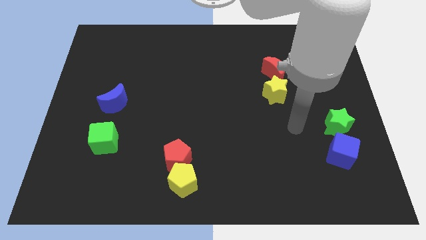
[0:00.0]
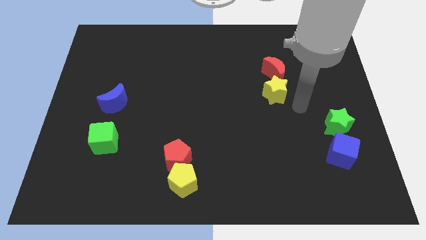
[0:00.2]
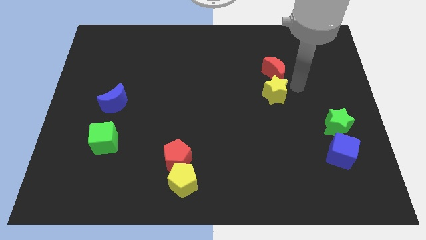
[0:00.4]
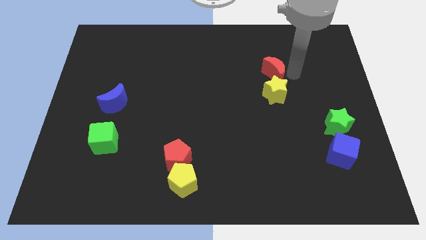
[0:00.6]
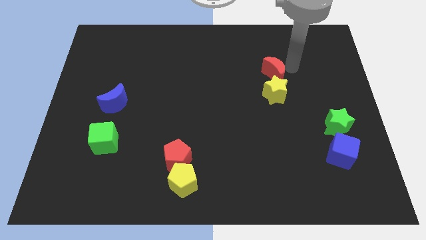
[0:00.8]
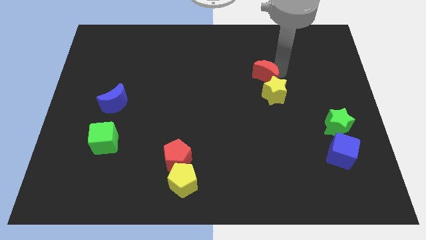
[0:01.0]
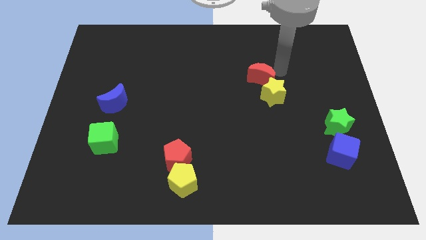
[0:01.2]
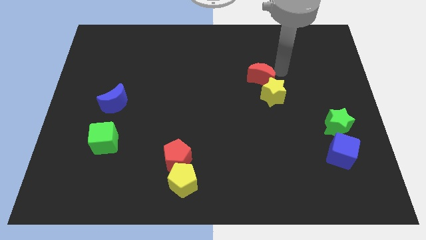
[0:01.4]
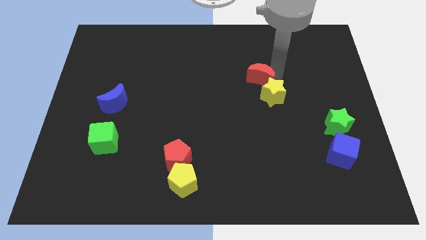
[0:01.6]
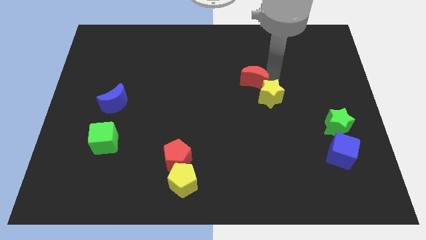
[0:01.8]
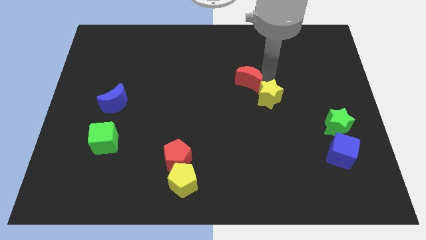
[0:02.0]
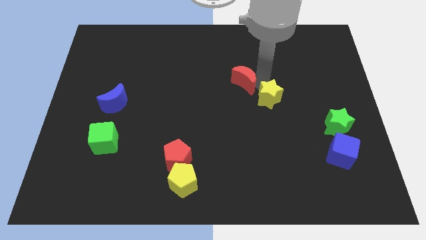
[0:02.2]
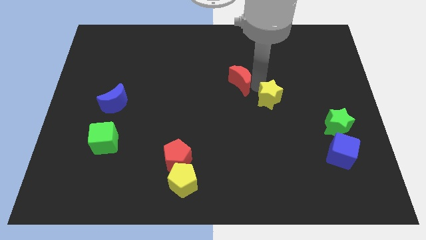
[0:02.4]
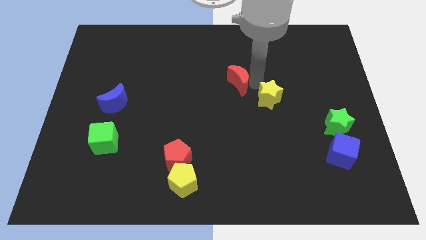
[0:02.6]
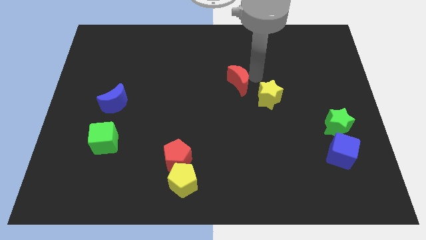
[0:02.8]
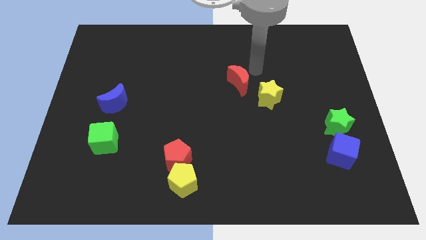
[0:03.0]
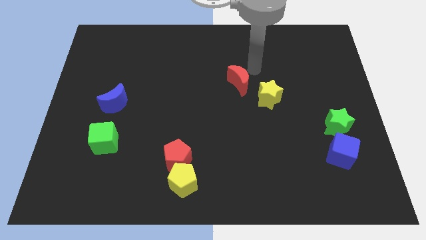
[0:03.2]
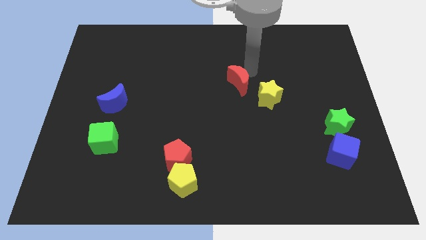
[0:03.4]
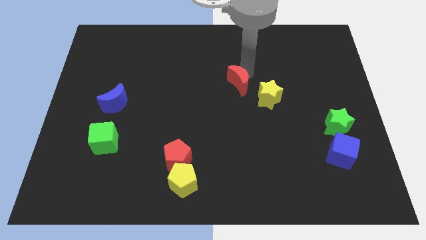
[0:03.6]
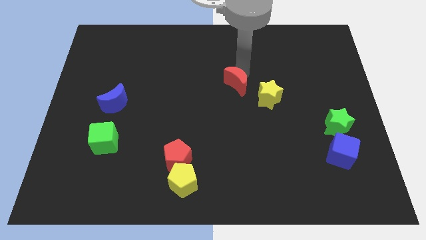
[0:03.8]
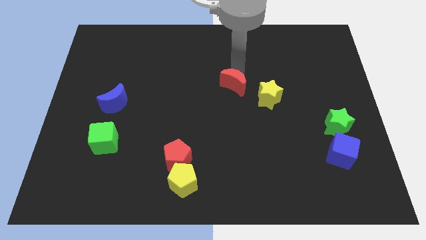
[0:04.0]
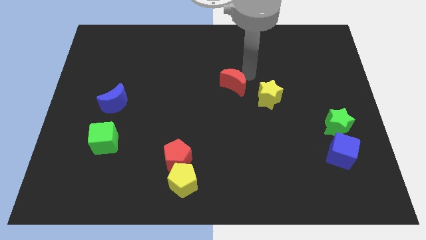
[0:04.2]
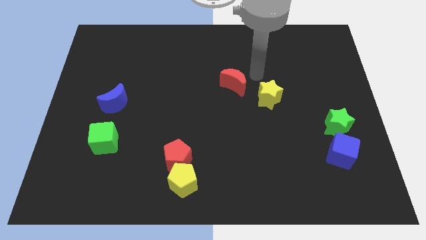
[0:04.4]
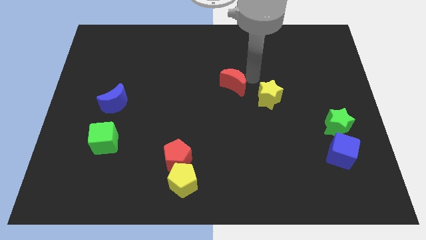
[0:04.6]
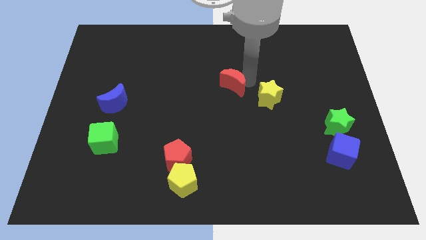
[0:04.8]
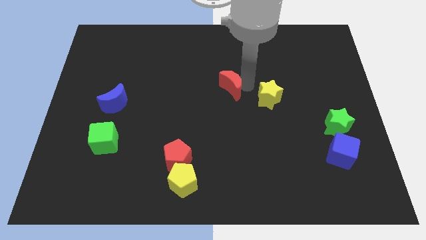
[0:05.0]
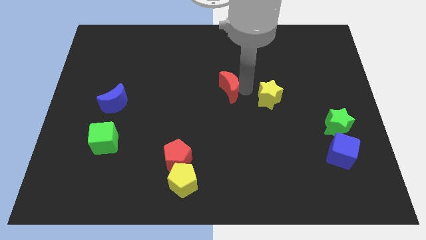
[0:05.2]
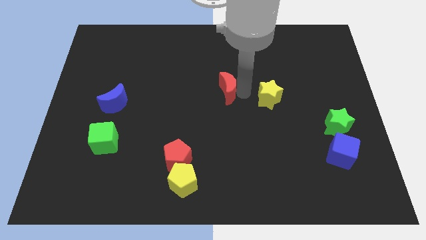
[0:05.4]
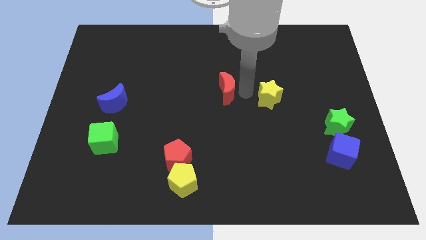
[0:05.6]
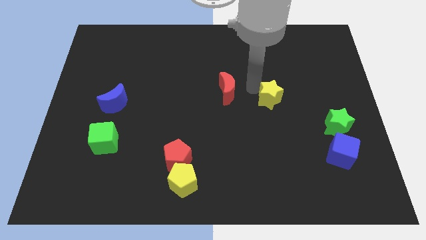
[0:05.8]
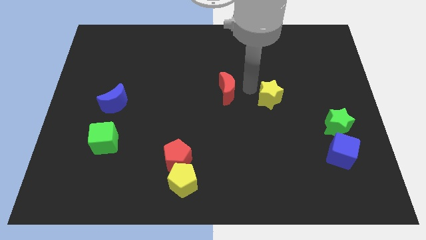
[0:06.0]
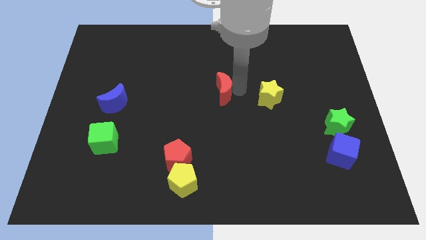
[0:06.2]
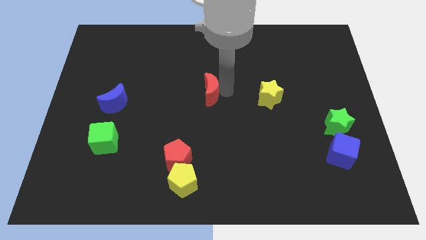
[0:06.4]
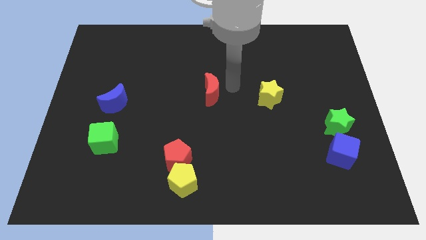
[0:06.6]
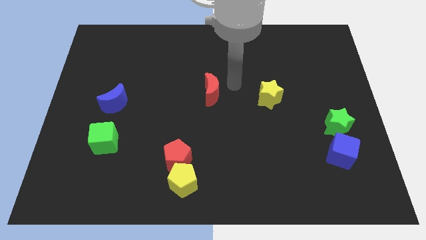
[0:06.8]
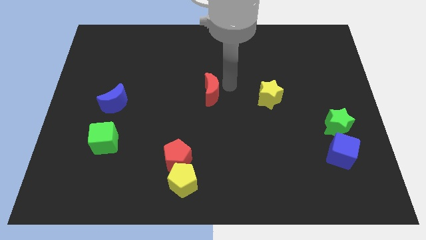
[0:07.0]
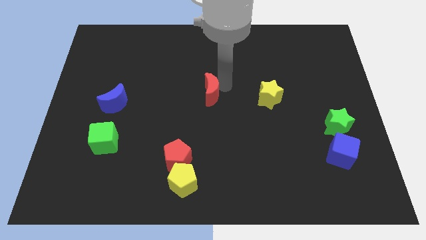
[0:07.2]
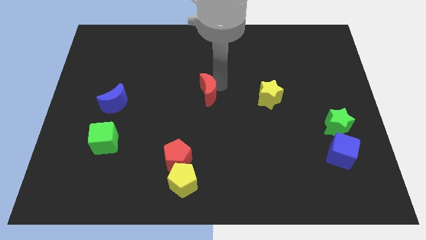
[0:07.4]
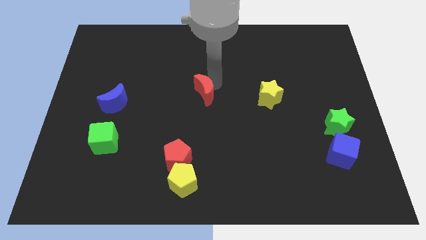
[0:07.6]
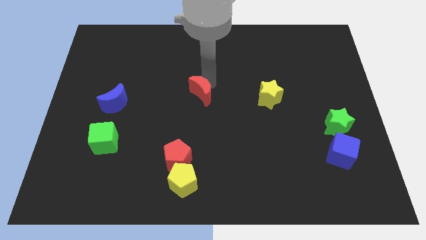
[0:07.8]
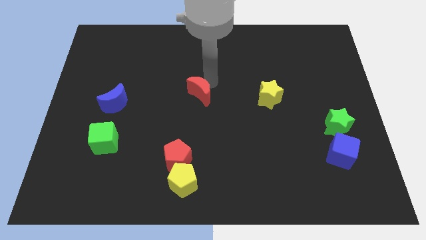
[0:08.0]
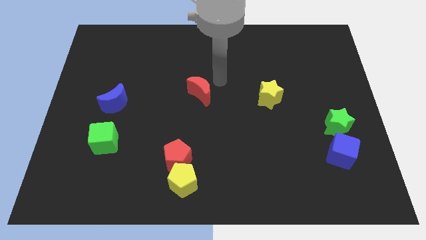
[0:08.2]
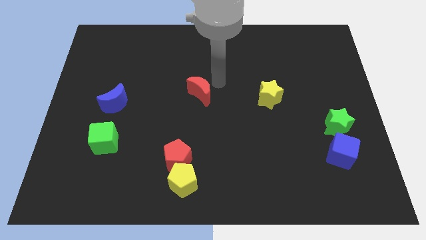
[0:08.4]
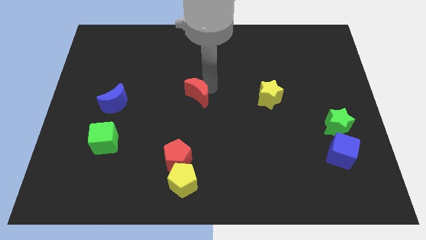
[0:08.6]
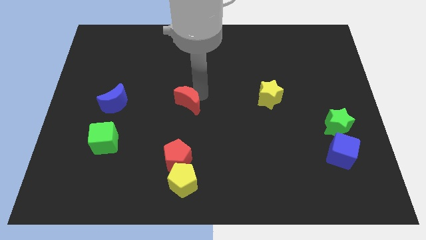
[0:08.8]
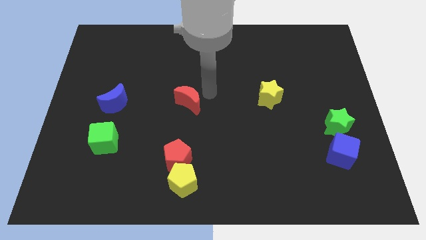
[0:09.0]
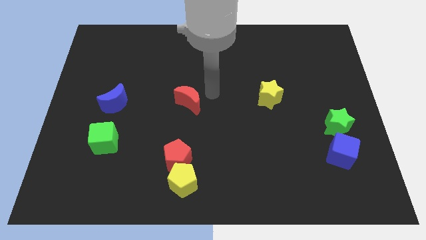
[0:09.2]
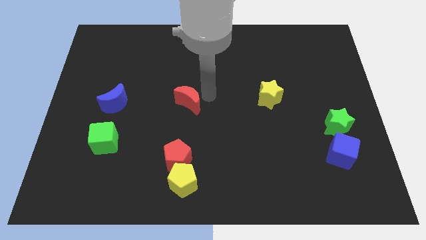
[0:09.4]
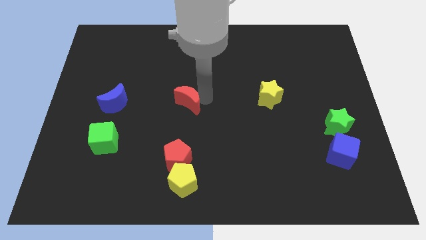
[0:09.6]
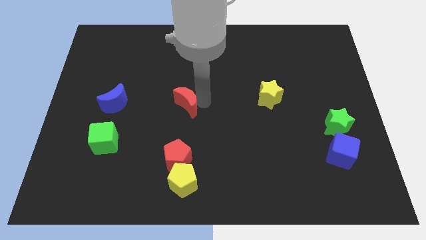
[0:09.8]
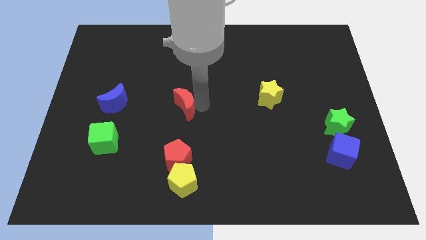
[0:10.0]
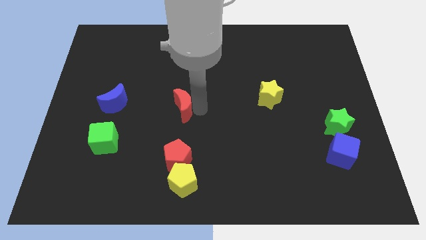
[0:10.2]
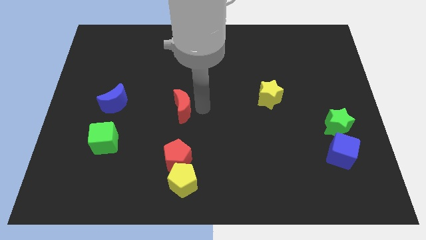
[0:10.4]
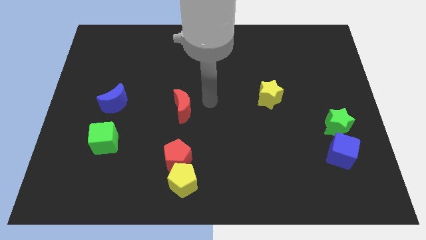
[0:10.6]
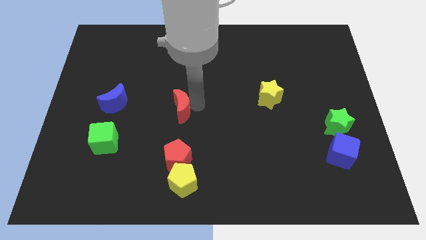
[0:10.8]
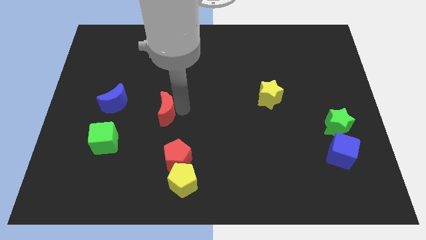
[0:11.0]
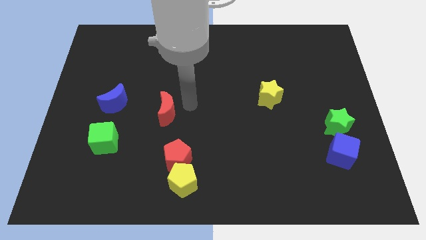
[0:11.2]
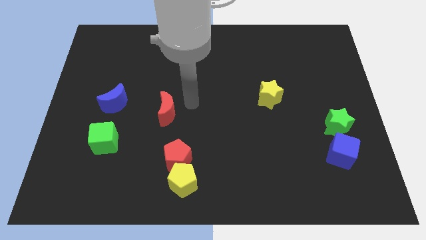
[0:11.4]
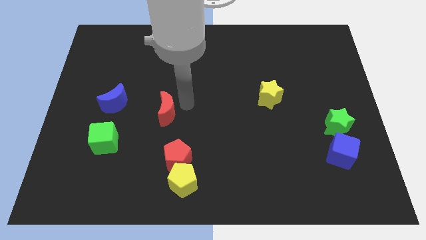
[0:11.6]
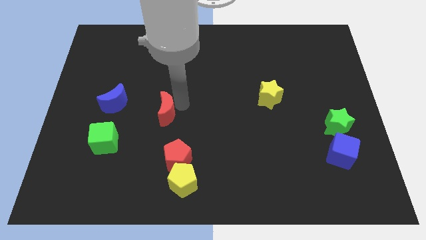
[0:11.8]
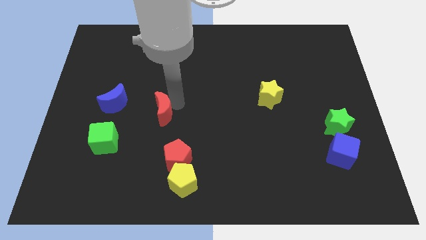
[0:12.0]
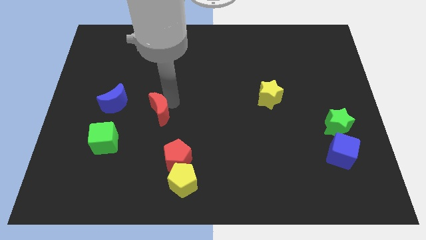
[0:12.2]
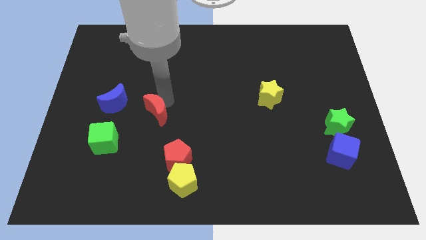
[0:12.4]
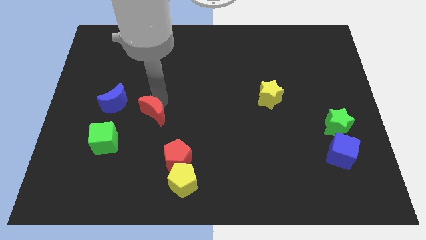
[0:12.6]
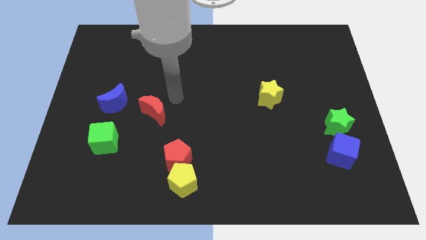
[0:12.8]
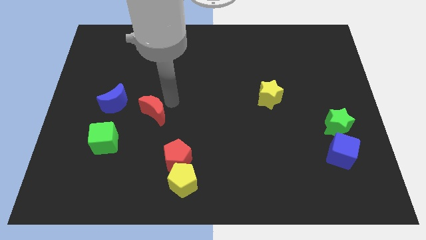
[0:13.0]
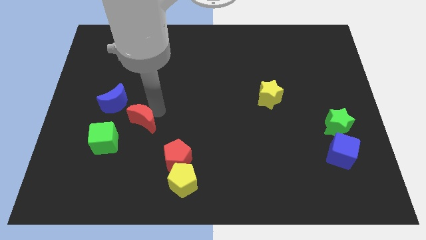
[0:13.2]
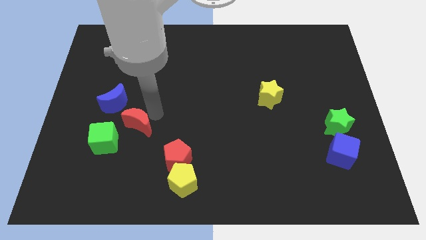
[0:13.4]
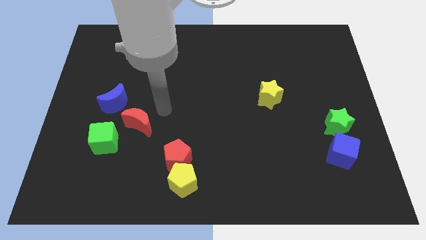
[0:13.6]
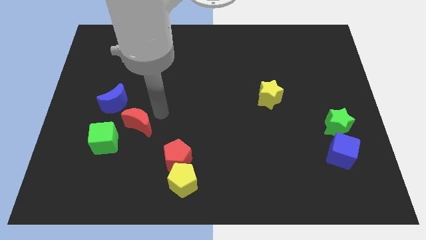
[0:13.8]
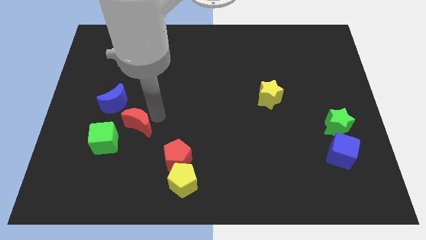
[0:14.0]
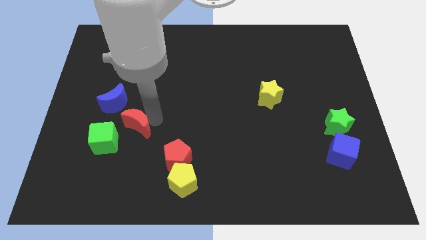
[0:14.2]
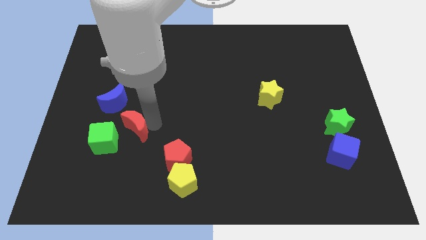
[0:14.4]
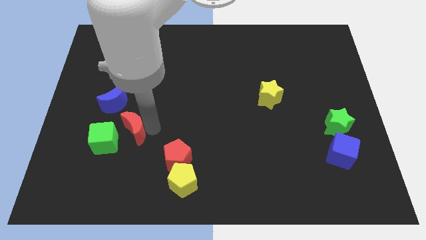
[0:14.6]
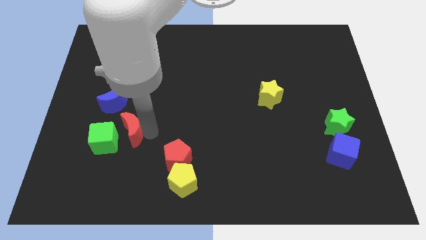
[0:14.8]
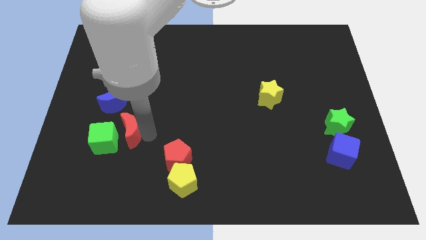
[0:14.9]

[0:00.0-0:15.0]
push the red moon to the green cube
